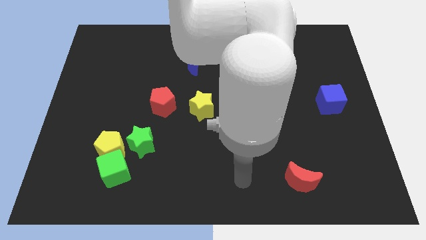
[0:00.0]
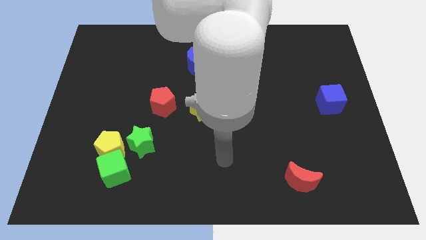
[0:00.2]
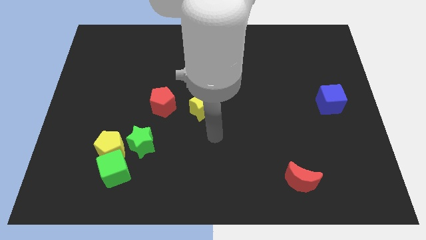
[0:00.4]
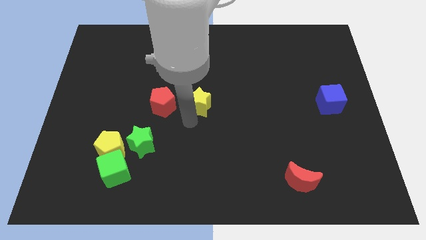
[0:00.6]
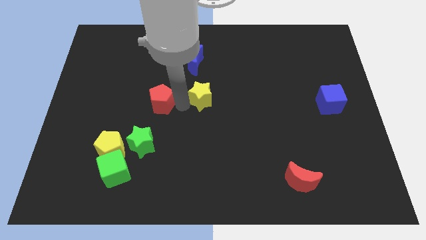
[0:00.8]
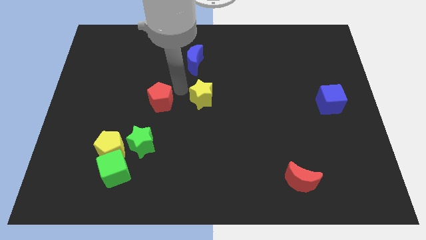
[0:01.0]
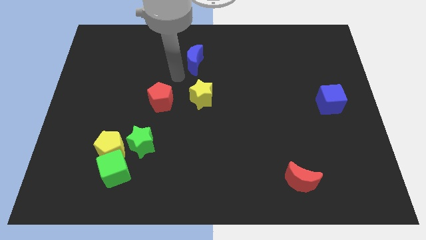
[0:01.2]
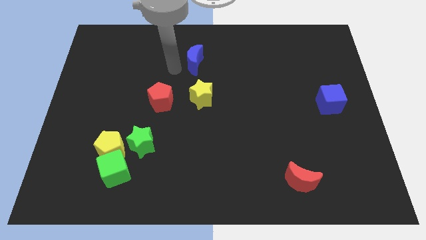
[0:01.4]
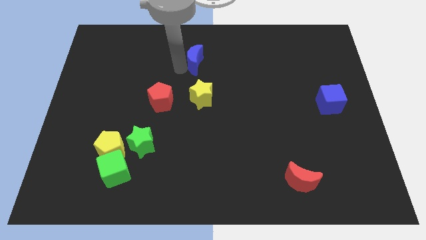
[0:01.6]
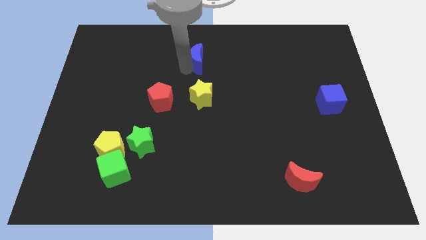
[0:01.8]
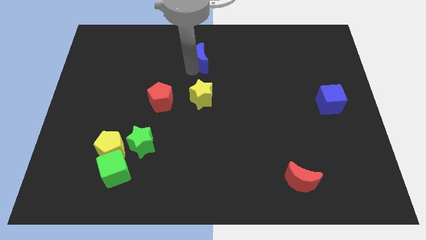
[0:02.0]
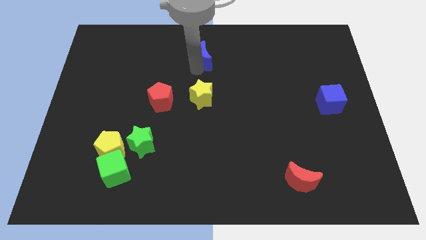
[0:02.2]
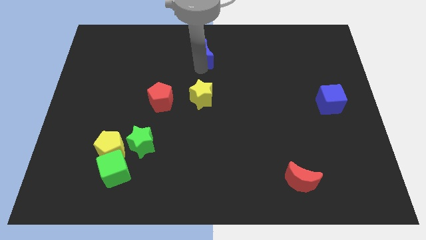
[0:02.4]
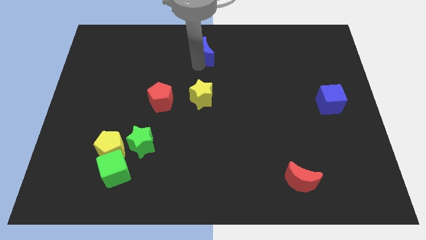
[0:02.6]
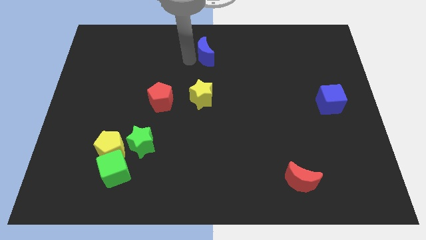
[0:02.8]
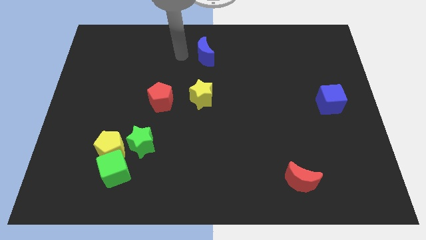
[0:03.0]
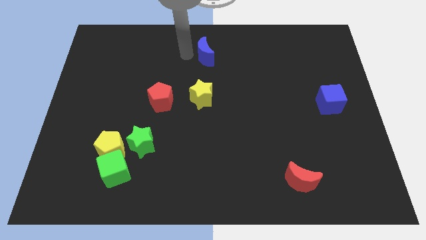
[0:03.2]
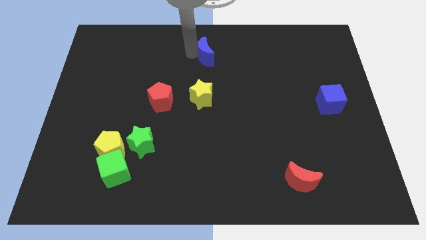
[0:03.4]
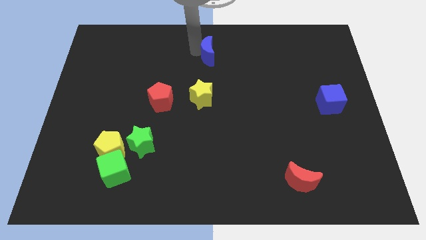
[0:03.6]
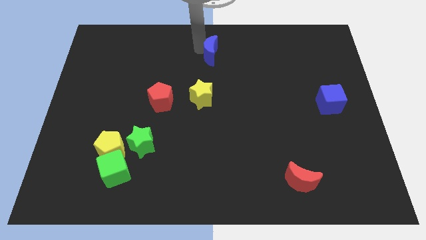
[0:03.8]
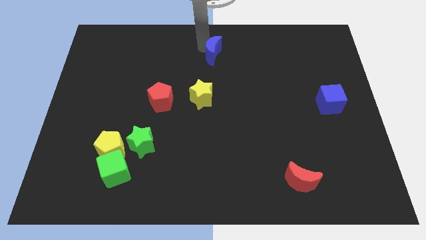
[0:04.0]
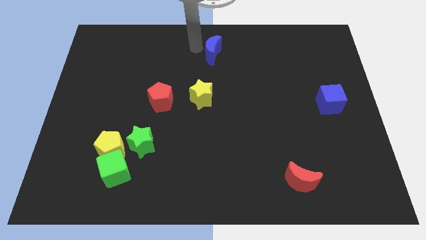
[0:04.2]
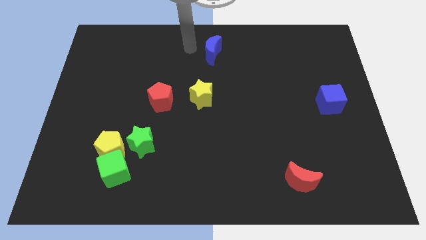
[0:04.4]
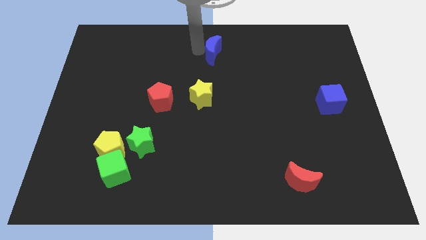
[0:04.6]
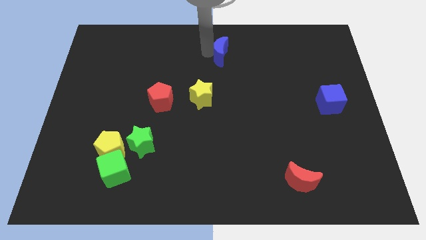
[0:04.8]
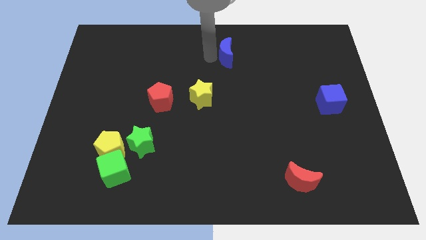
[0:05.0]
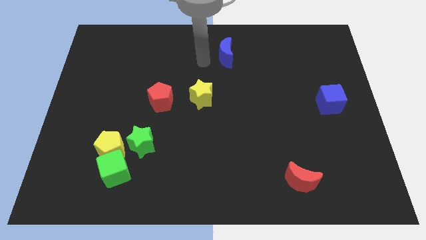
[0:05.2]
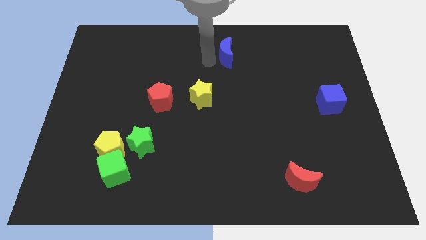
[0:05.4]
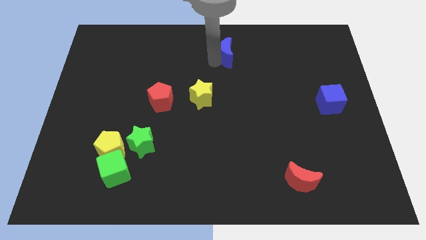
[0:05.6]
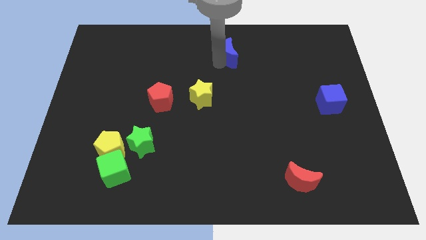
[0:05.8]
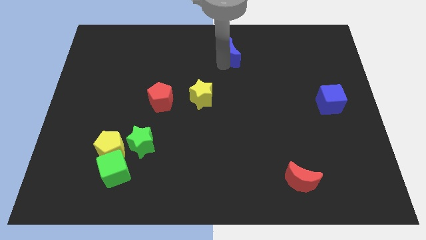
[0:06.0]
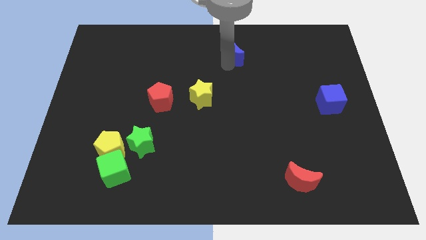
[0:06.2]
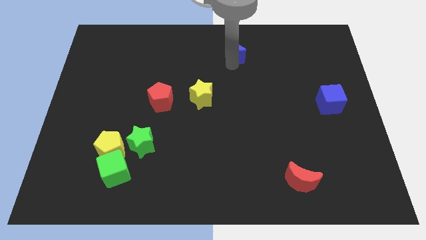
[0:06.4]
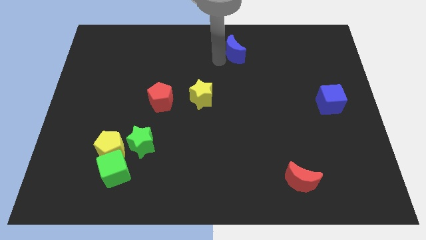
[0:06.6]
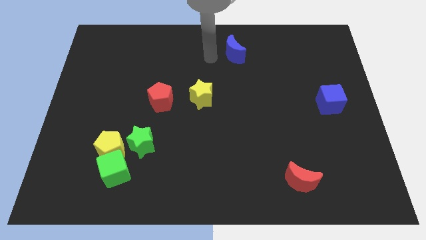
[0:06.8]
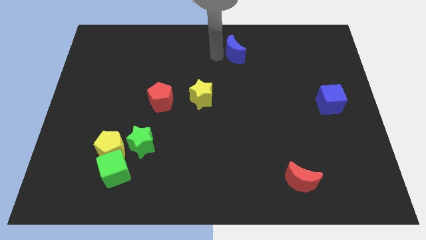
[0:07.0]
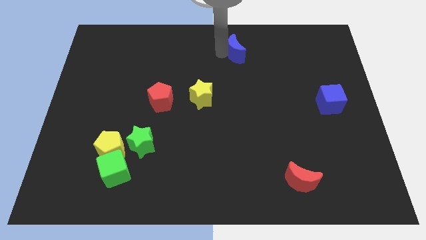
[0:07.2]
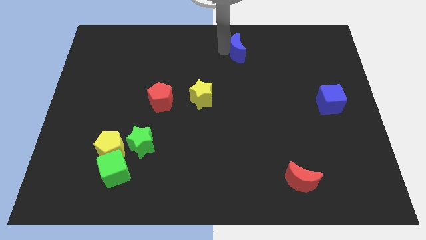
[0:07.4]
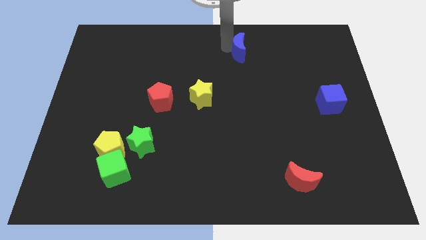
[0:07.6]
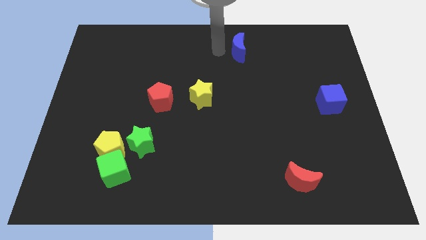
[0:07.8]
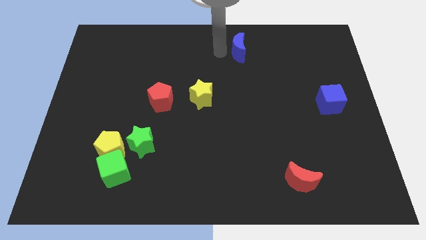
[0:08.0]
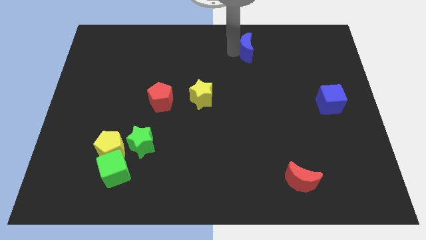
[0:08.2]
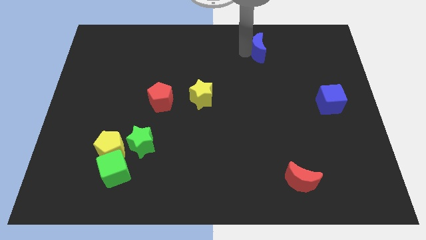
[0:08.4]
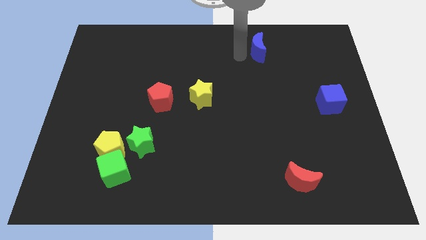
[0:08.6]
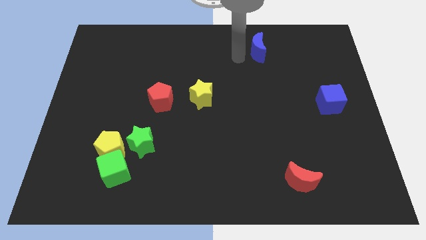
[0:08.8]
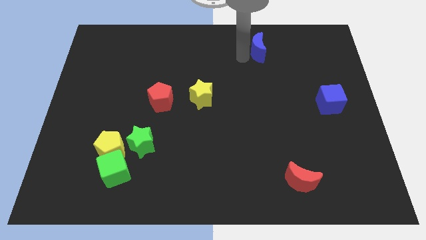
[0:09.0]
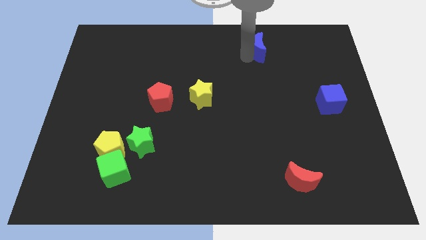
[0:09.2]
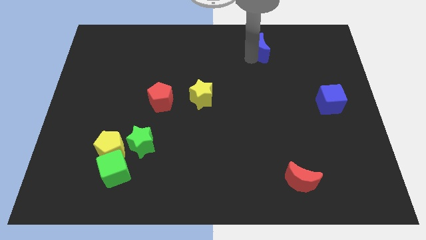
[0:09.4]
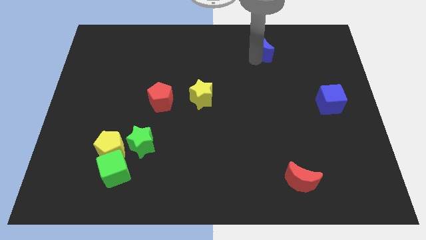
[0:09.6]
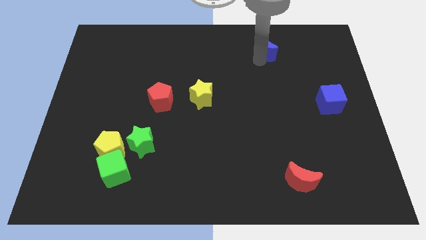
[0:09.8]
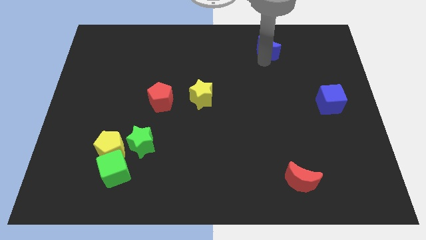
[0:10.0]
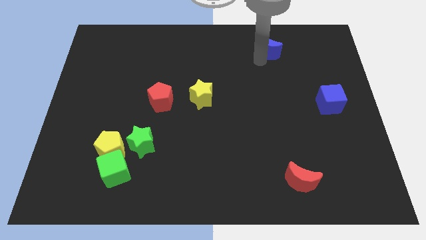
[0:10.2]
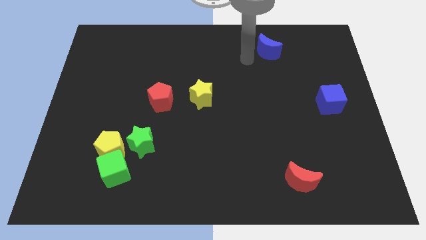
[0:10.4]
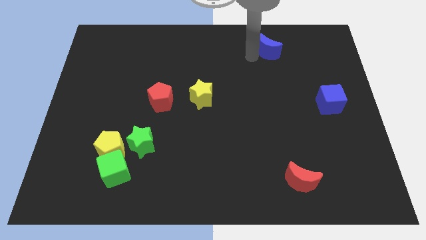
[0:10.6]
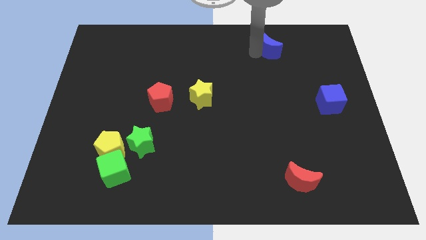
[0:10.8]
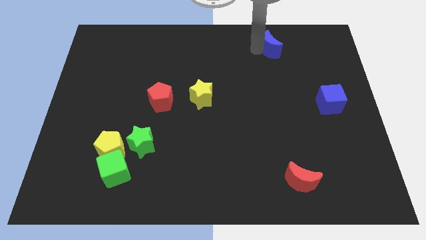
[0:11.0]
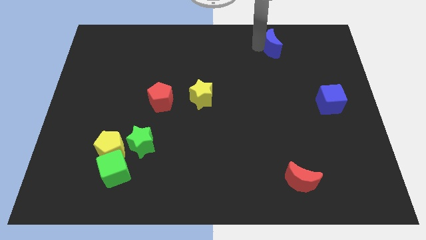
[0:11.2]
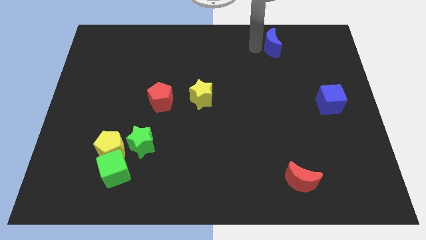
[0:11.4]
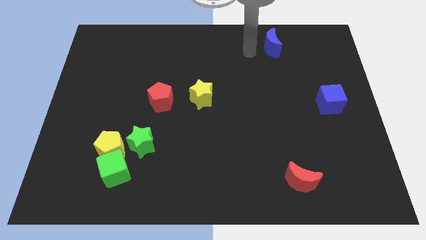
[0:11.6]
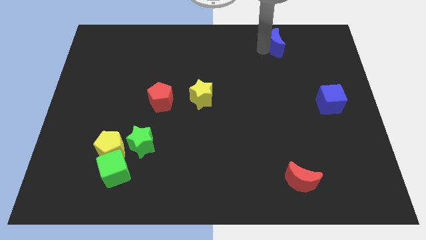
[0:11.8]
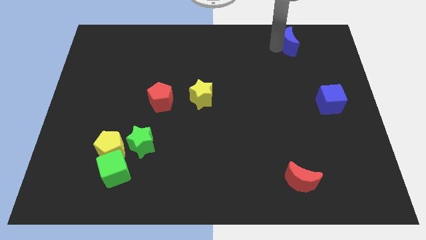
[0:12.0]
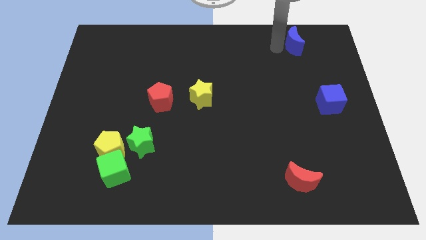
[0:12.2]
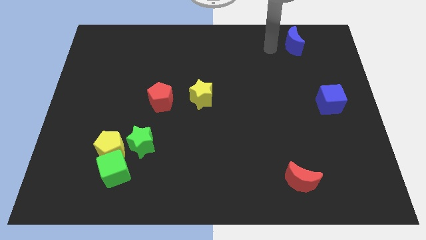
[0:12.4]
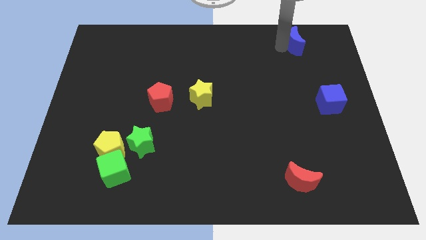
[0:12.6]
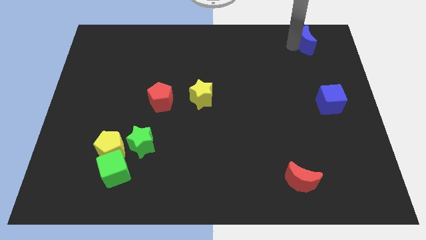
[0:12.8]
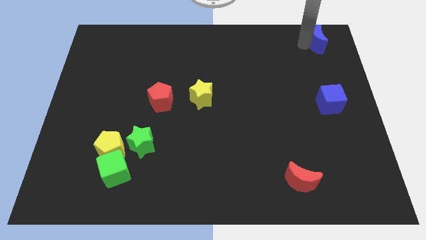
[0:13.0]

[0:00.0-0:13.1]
put the blue moon to the top right
